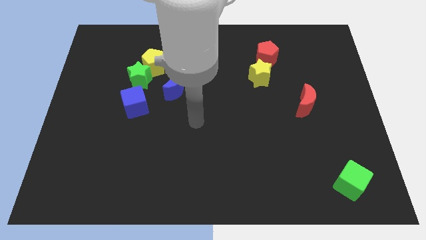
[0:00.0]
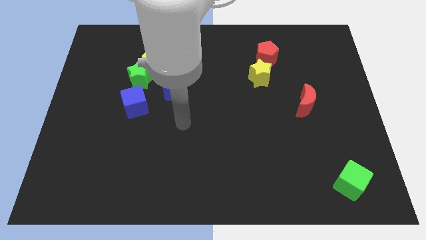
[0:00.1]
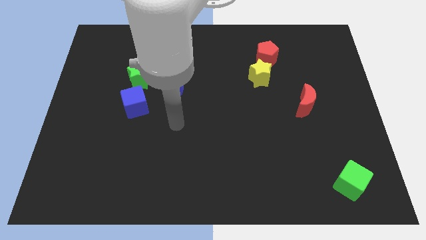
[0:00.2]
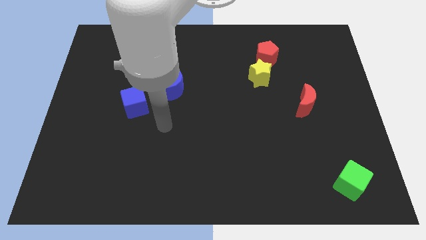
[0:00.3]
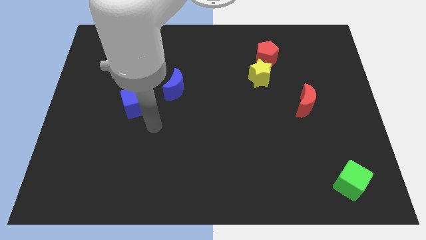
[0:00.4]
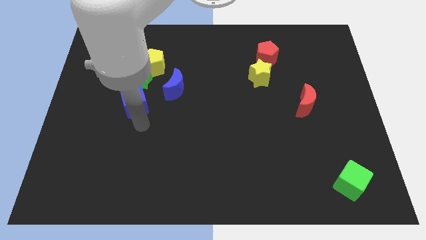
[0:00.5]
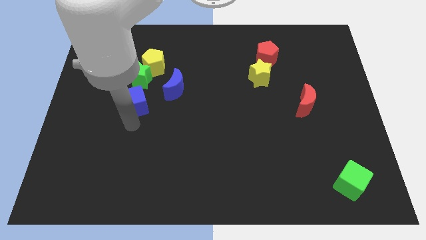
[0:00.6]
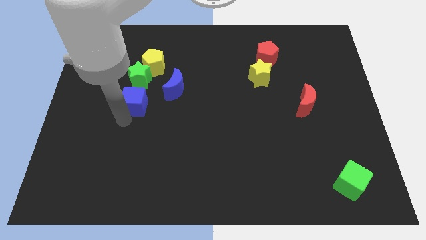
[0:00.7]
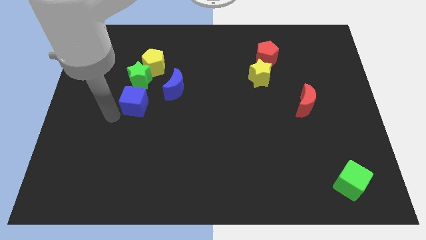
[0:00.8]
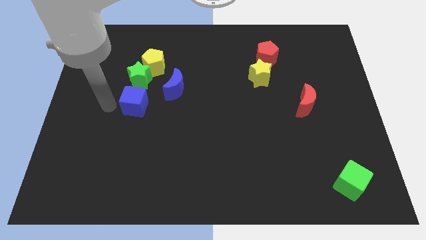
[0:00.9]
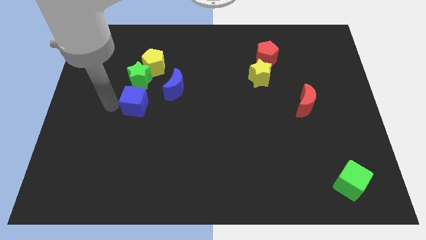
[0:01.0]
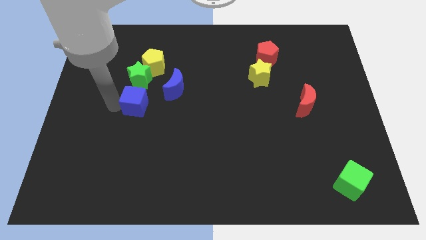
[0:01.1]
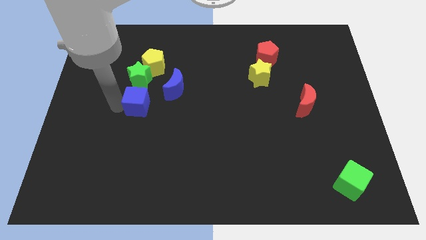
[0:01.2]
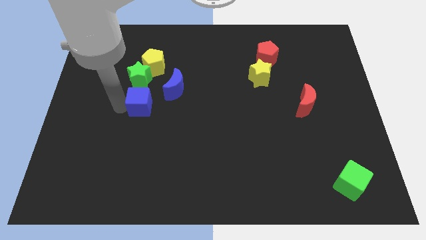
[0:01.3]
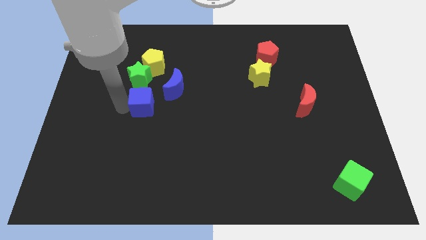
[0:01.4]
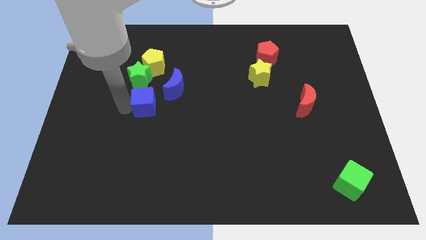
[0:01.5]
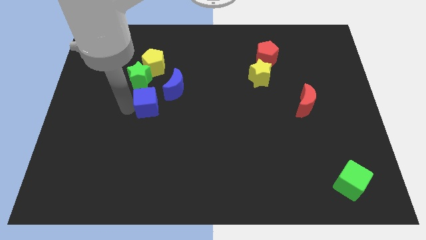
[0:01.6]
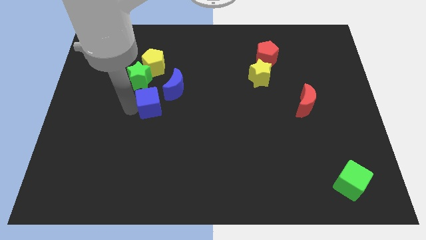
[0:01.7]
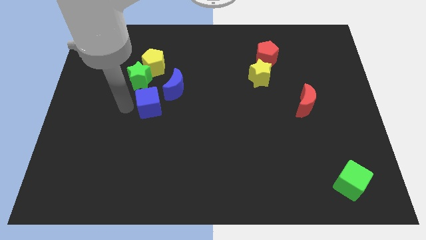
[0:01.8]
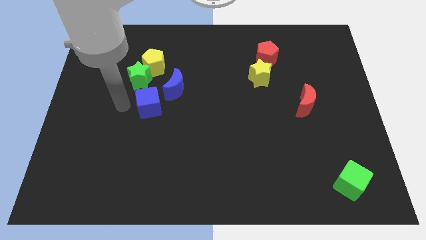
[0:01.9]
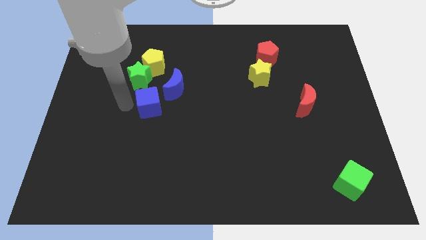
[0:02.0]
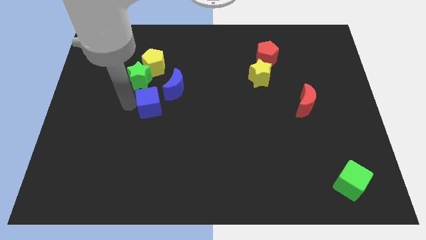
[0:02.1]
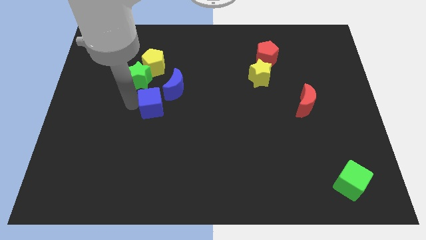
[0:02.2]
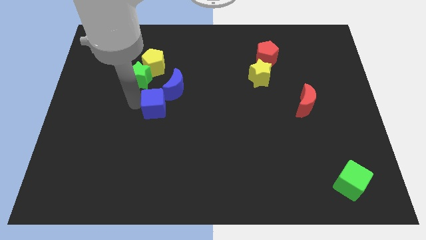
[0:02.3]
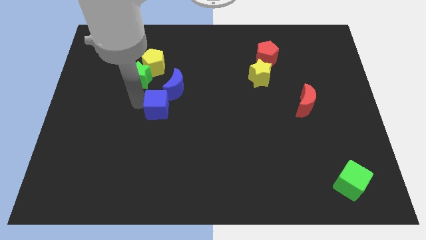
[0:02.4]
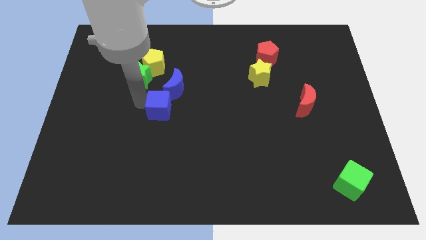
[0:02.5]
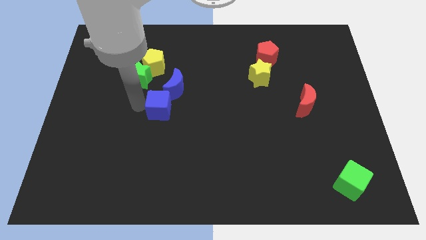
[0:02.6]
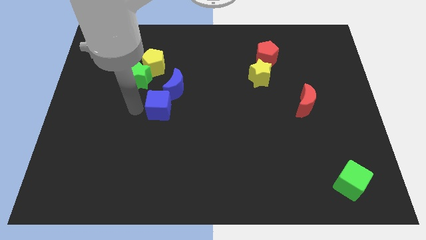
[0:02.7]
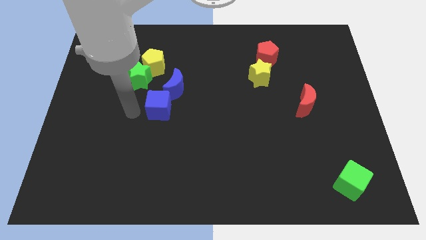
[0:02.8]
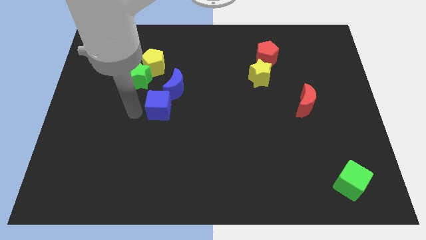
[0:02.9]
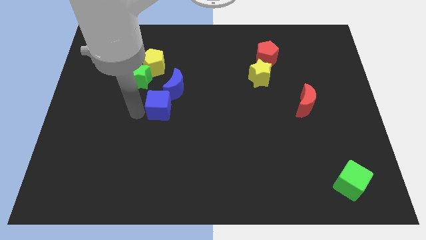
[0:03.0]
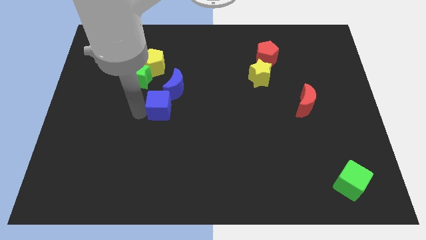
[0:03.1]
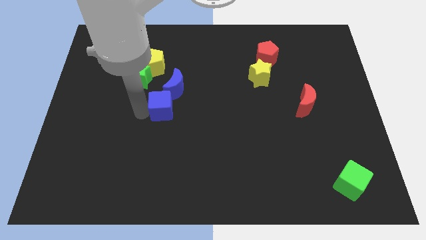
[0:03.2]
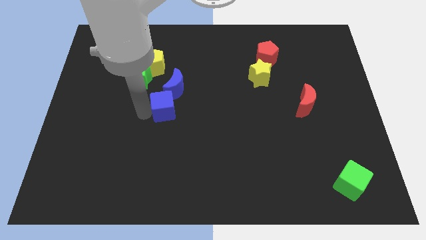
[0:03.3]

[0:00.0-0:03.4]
push the blue cube to the right a bit

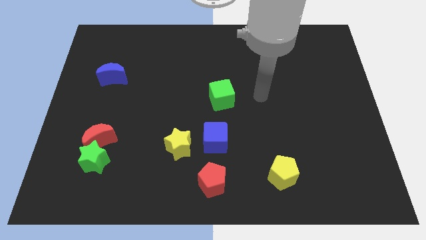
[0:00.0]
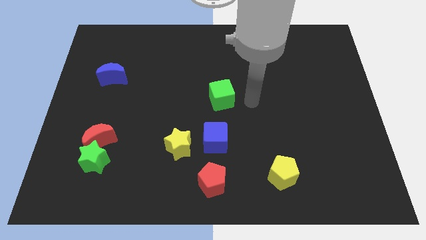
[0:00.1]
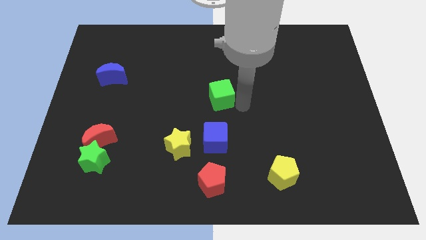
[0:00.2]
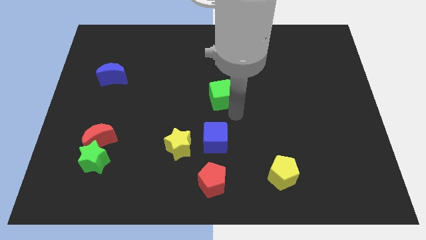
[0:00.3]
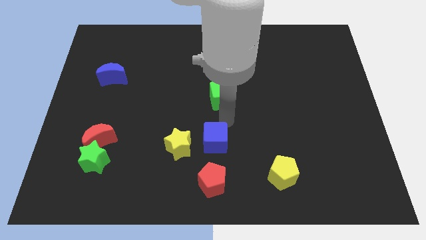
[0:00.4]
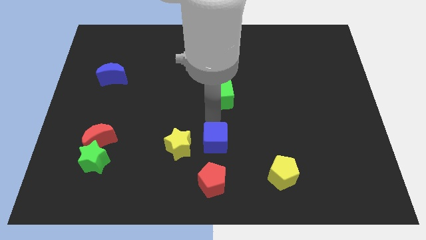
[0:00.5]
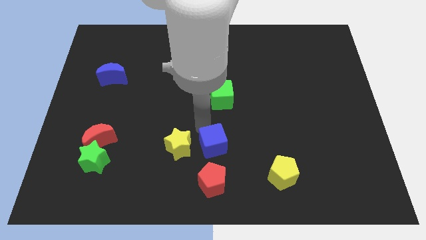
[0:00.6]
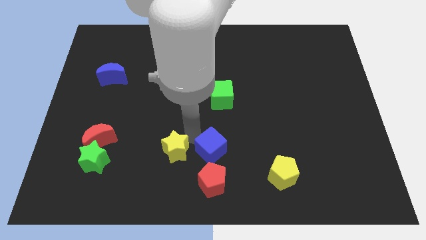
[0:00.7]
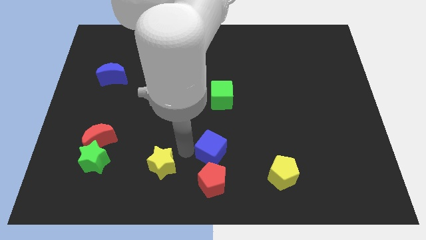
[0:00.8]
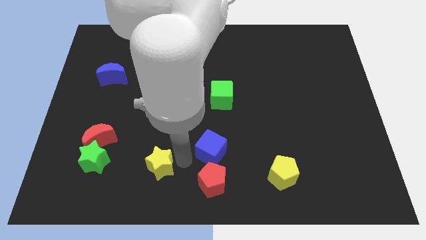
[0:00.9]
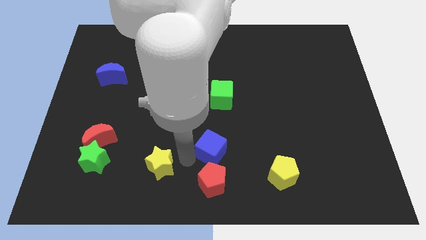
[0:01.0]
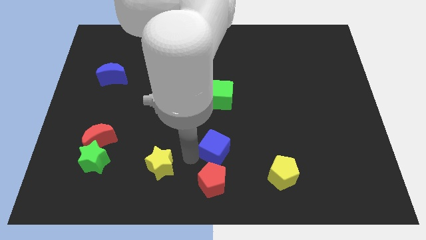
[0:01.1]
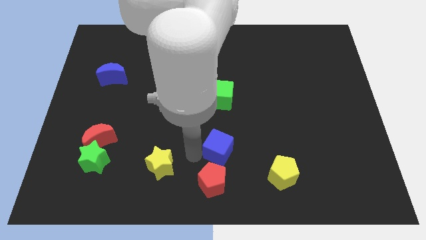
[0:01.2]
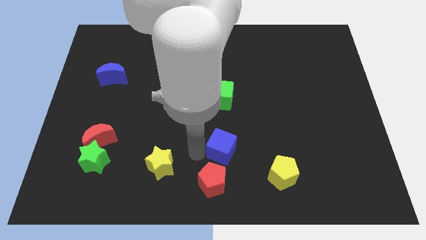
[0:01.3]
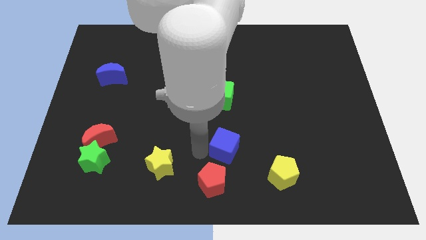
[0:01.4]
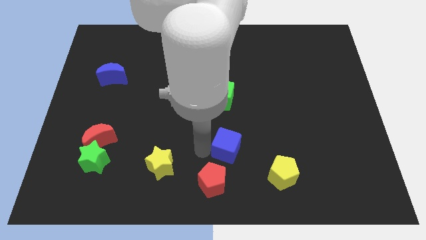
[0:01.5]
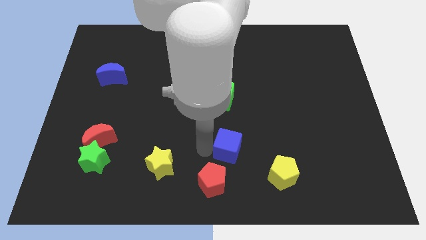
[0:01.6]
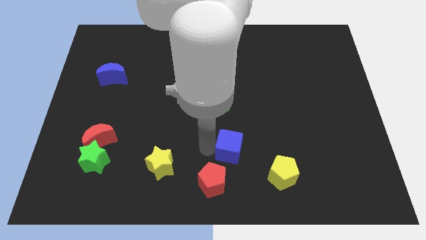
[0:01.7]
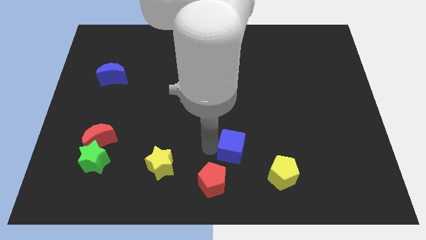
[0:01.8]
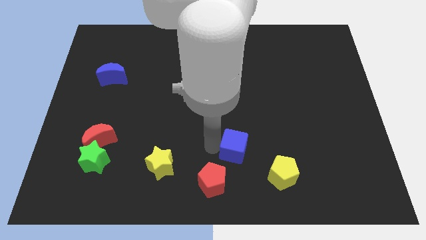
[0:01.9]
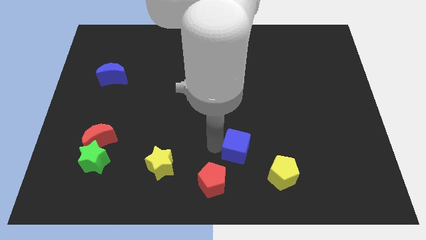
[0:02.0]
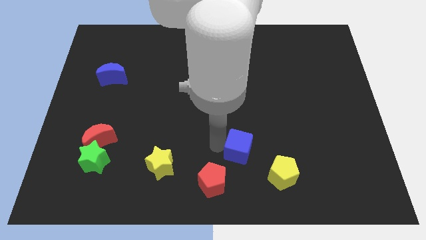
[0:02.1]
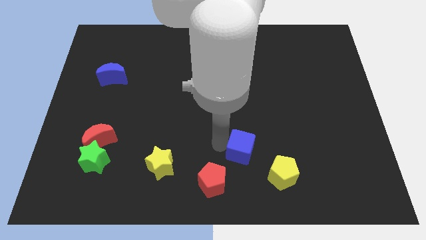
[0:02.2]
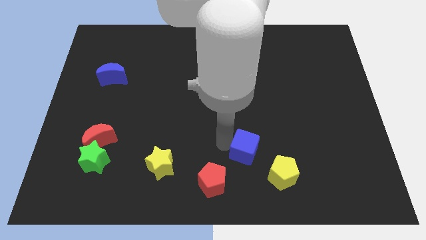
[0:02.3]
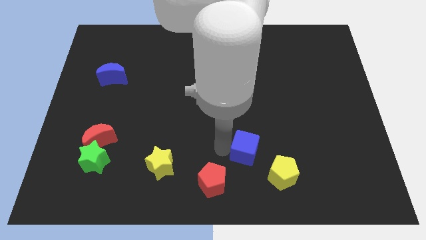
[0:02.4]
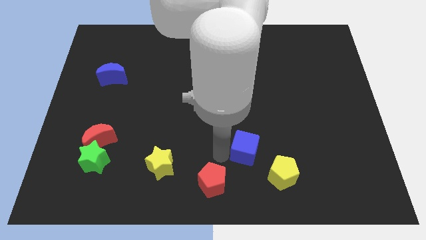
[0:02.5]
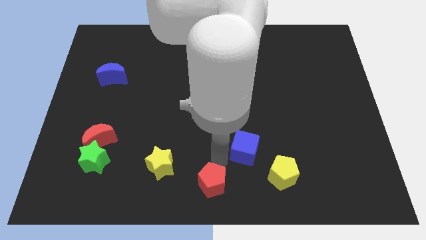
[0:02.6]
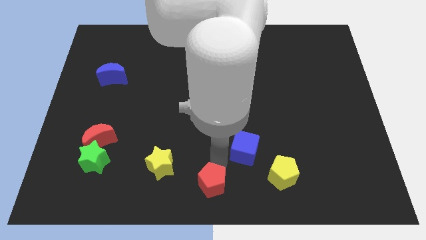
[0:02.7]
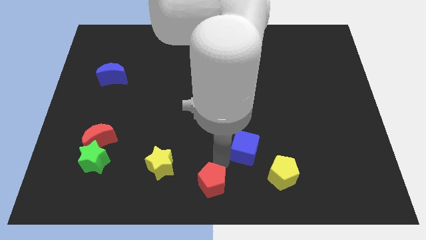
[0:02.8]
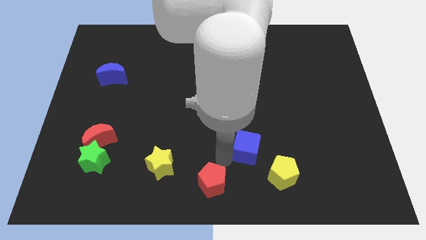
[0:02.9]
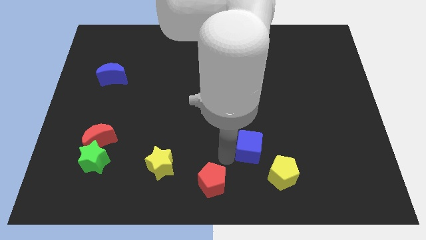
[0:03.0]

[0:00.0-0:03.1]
move the blue cube right a little

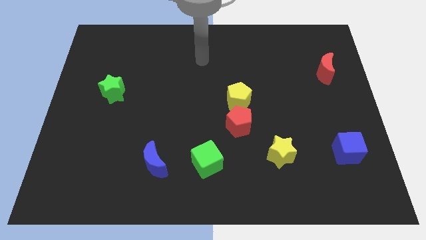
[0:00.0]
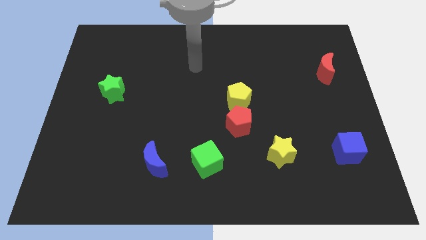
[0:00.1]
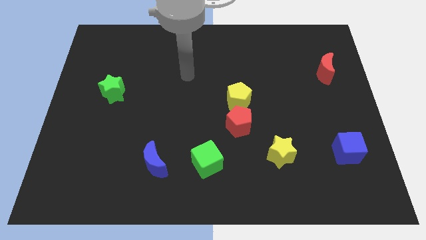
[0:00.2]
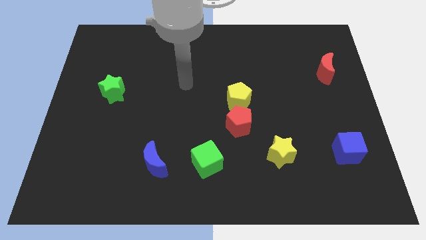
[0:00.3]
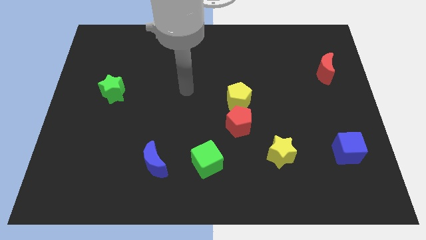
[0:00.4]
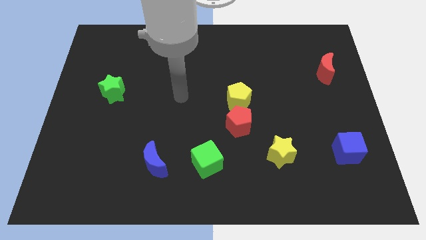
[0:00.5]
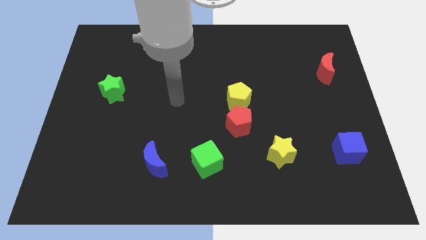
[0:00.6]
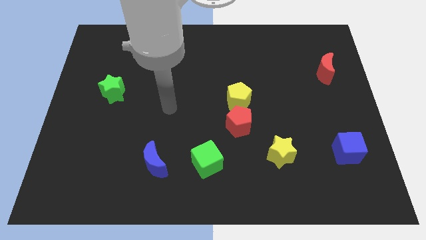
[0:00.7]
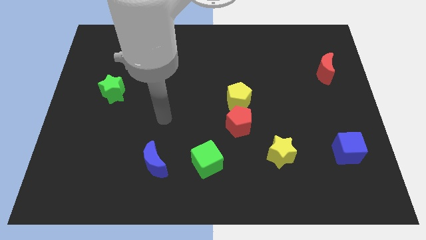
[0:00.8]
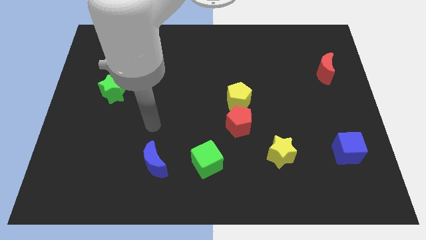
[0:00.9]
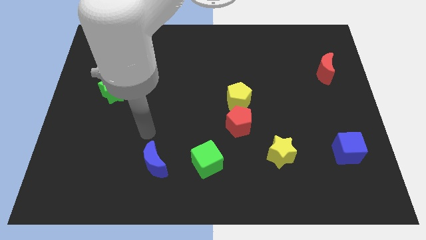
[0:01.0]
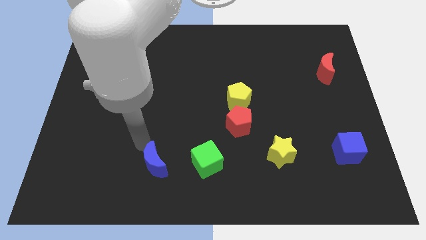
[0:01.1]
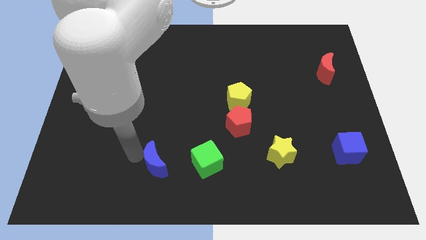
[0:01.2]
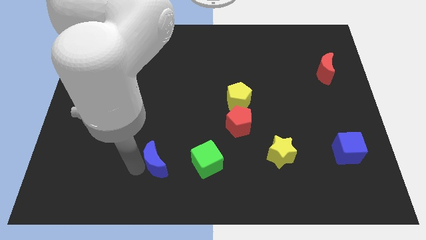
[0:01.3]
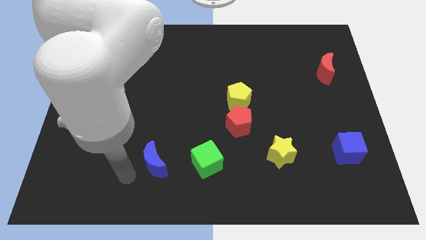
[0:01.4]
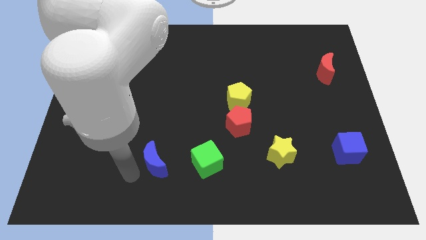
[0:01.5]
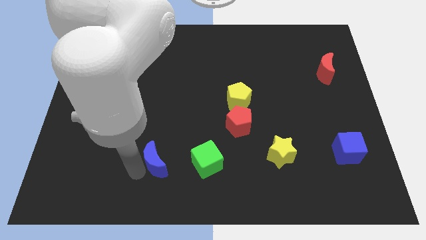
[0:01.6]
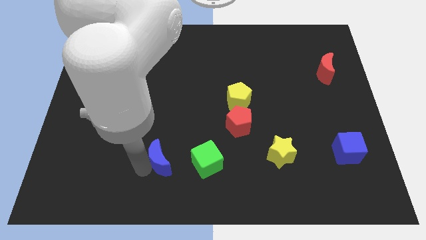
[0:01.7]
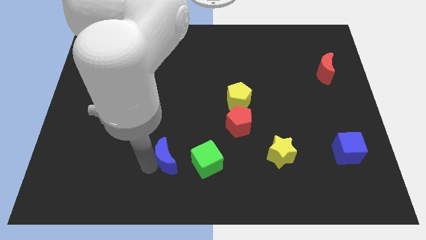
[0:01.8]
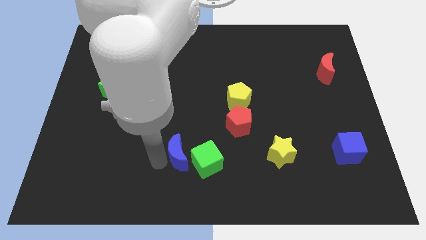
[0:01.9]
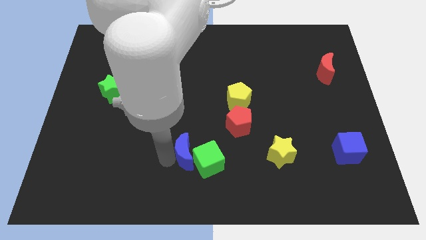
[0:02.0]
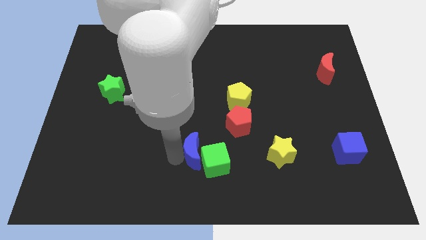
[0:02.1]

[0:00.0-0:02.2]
slide the blue moon right somewhat
